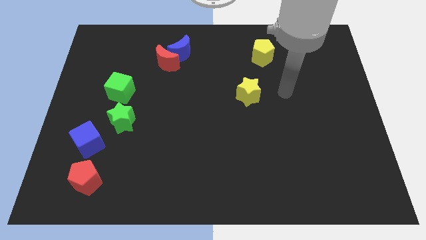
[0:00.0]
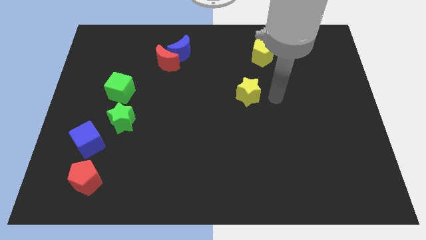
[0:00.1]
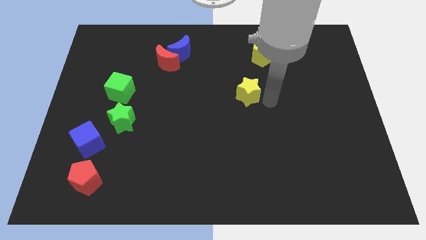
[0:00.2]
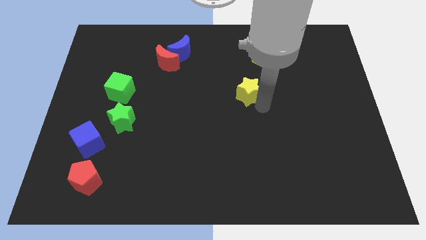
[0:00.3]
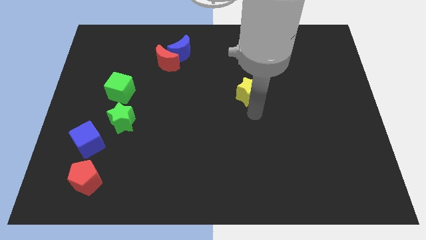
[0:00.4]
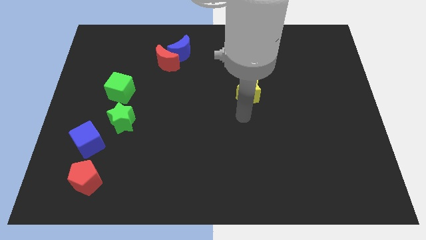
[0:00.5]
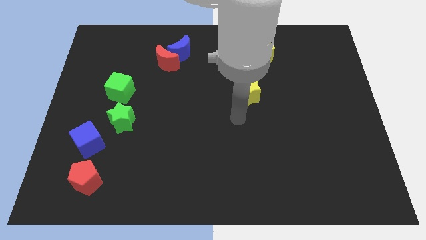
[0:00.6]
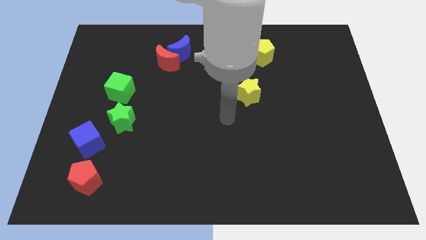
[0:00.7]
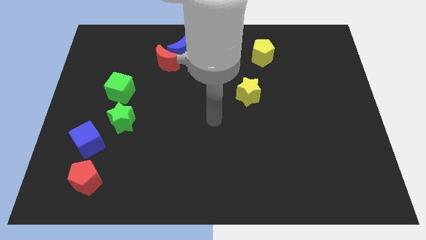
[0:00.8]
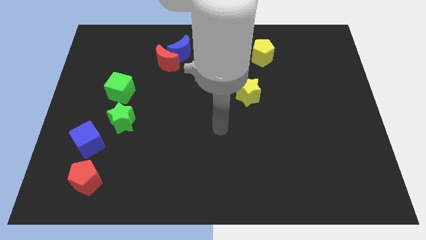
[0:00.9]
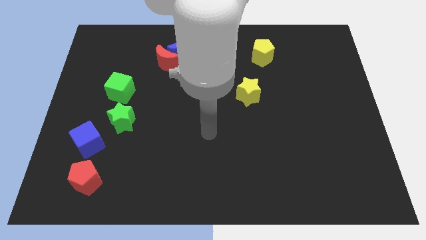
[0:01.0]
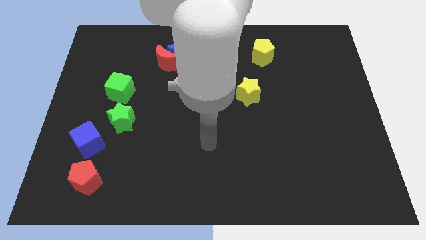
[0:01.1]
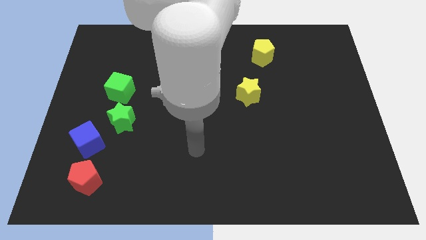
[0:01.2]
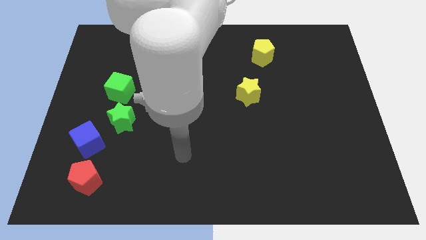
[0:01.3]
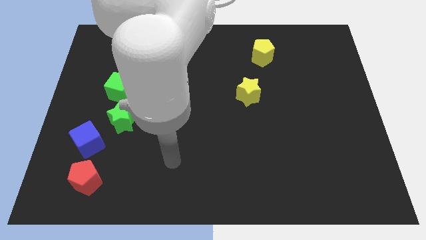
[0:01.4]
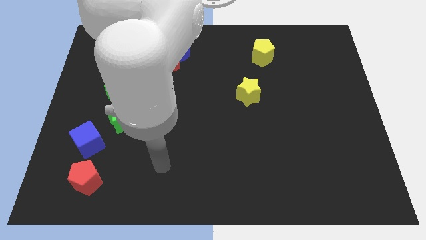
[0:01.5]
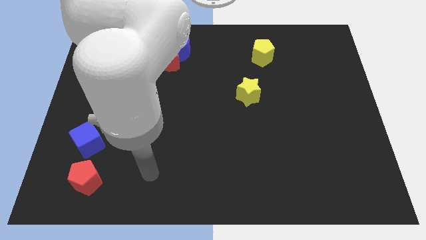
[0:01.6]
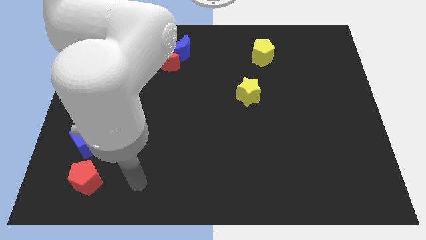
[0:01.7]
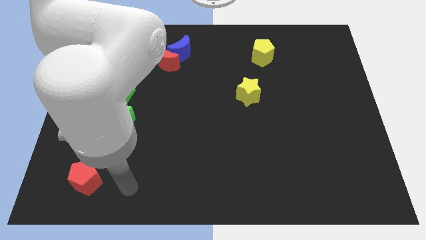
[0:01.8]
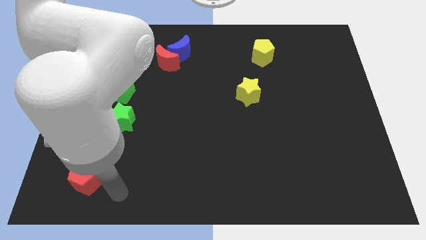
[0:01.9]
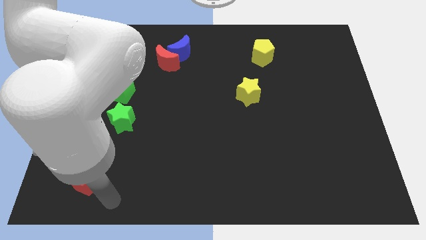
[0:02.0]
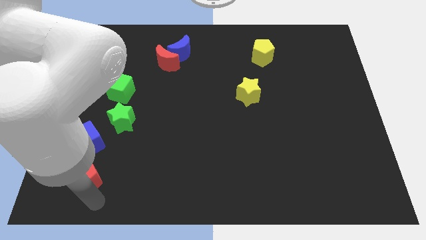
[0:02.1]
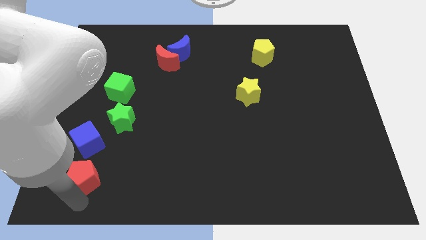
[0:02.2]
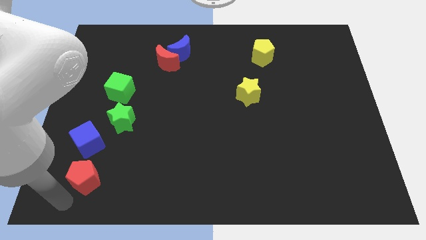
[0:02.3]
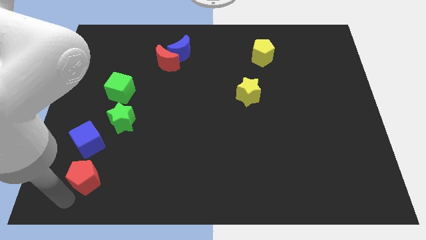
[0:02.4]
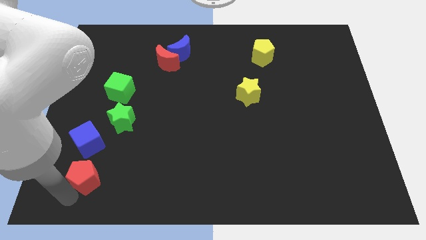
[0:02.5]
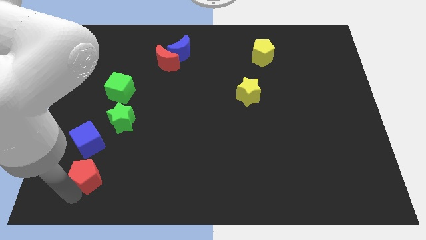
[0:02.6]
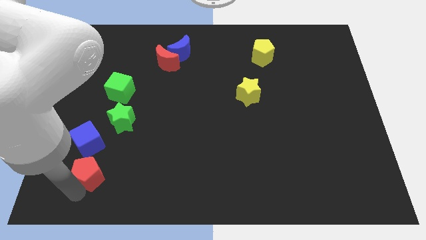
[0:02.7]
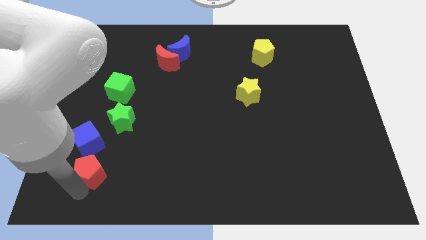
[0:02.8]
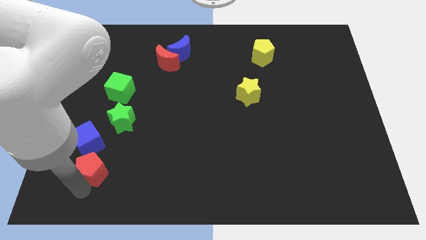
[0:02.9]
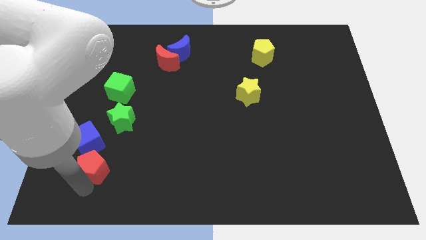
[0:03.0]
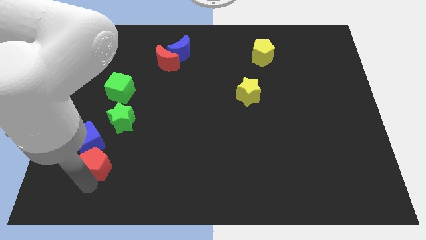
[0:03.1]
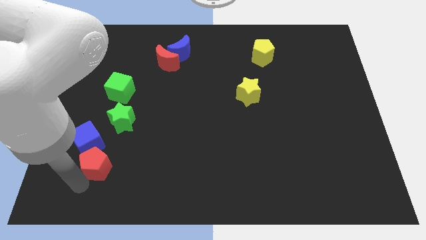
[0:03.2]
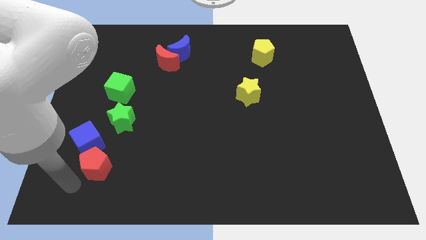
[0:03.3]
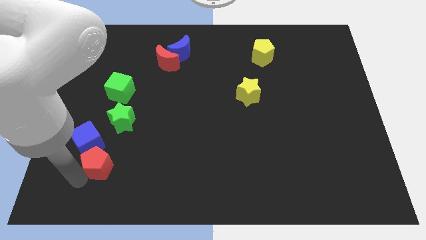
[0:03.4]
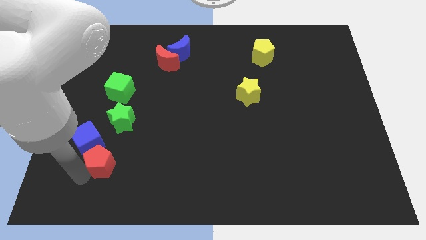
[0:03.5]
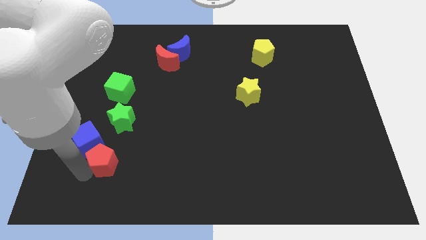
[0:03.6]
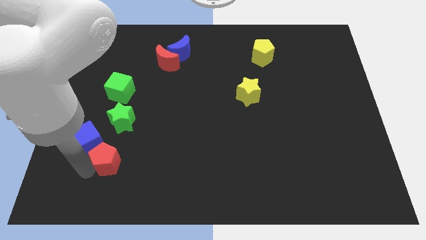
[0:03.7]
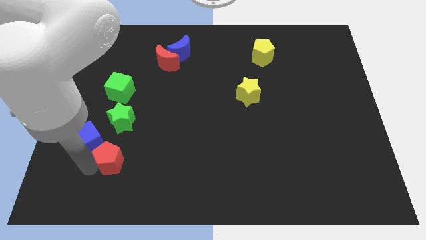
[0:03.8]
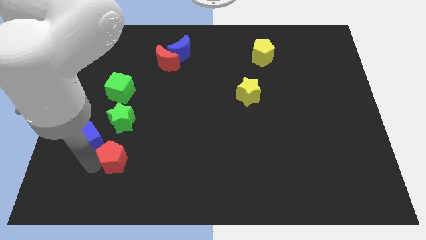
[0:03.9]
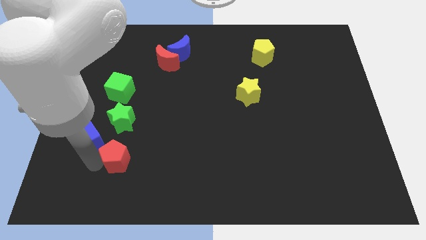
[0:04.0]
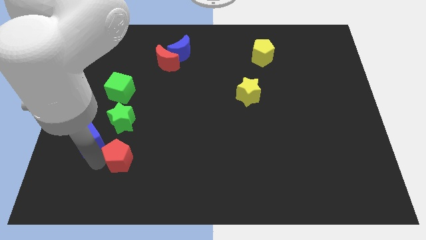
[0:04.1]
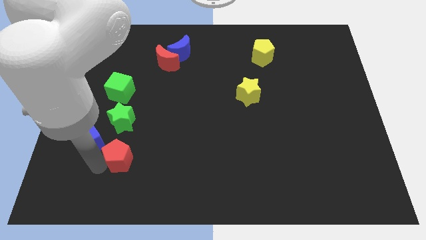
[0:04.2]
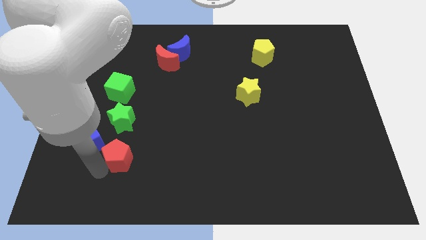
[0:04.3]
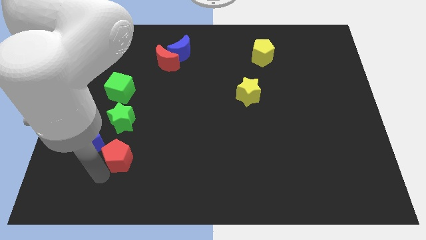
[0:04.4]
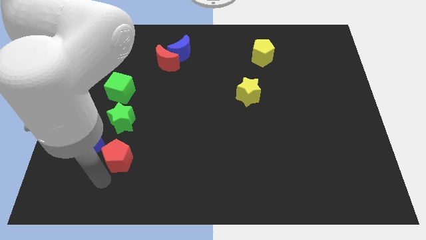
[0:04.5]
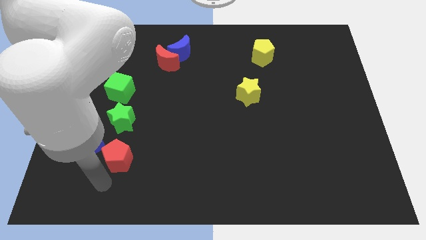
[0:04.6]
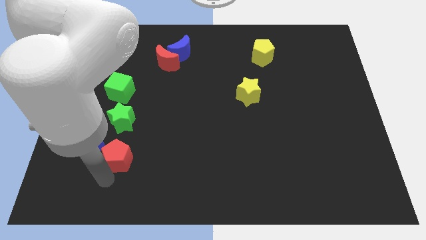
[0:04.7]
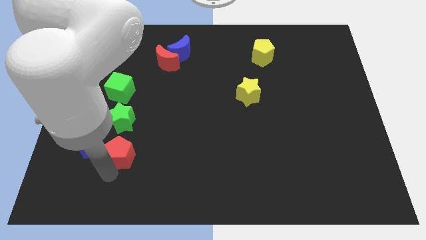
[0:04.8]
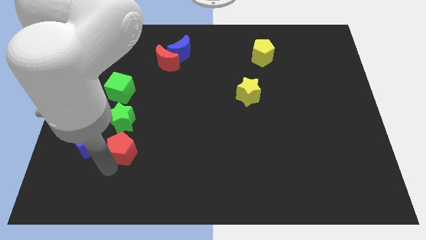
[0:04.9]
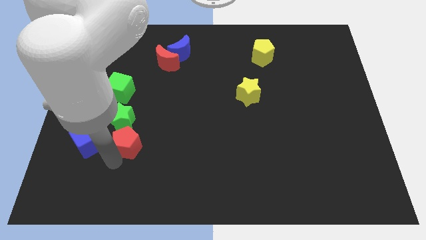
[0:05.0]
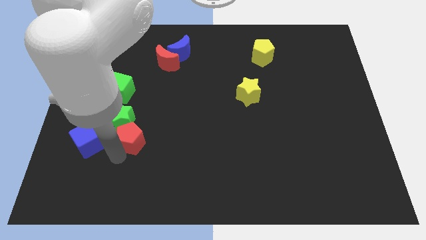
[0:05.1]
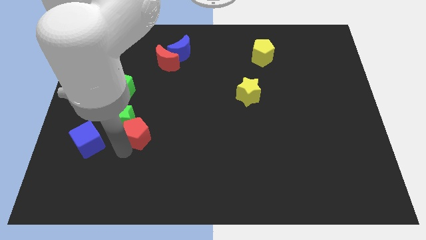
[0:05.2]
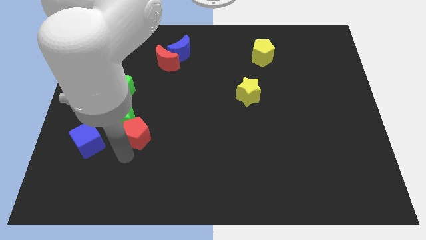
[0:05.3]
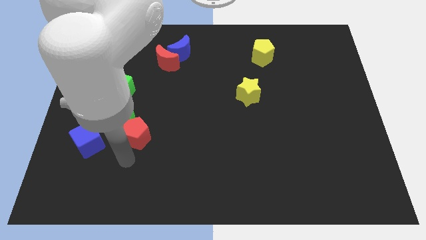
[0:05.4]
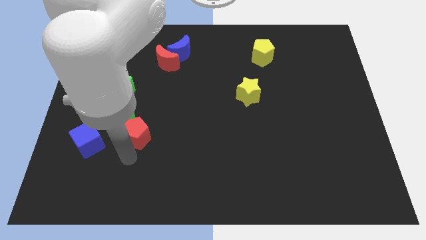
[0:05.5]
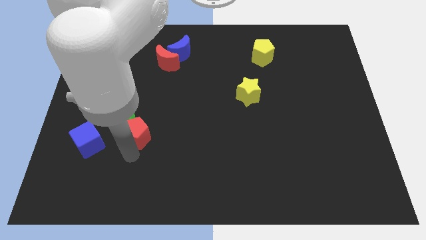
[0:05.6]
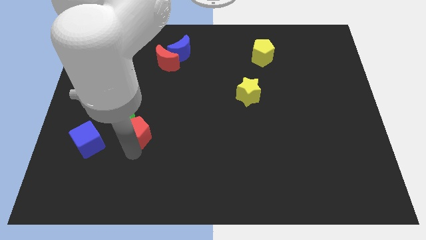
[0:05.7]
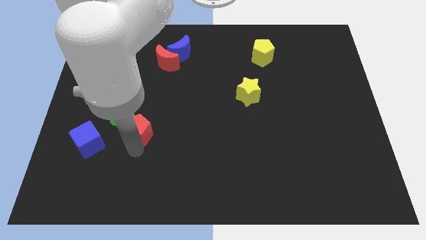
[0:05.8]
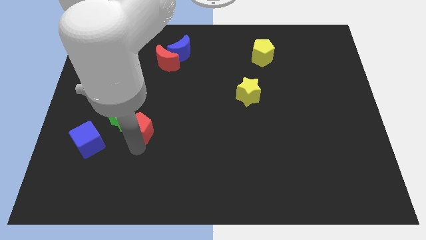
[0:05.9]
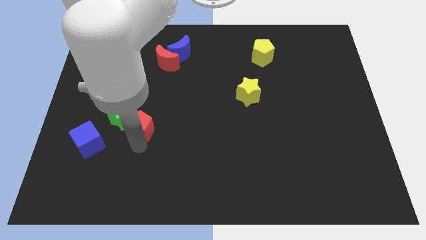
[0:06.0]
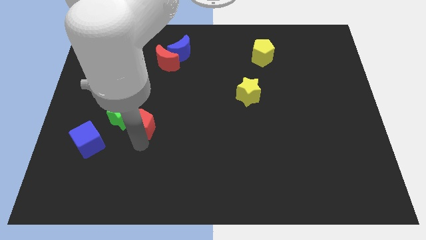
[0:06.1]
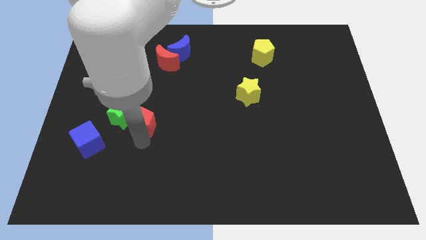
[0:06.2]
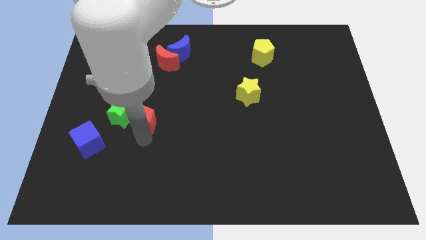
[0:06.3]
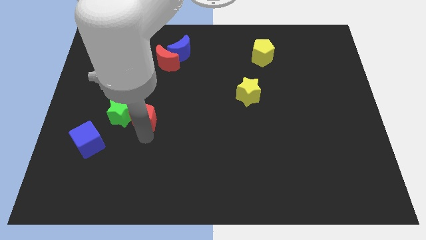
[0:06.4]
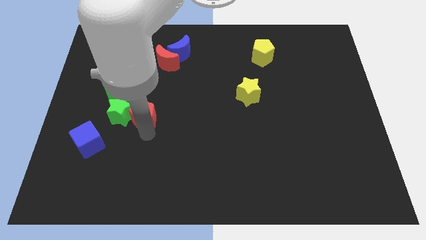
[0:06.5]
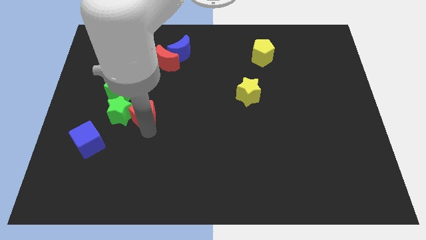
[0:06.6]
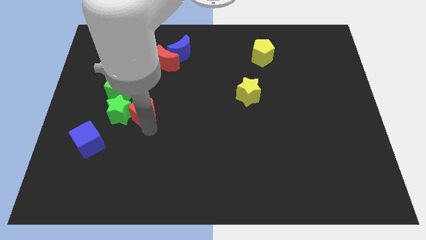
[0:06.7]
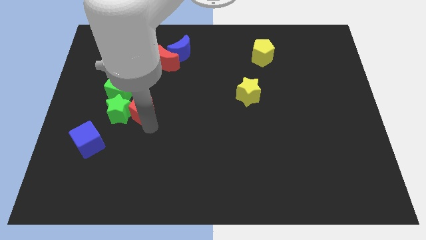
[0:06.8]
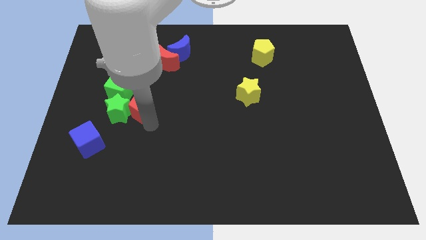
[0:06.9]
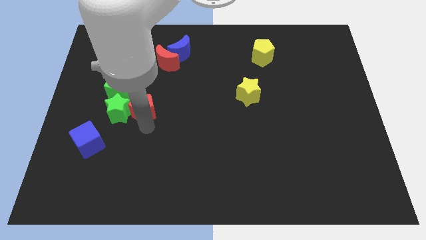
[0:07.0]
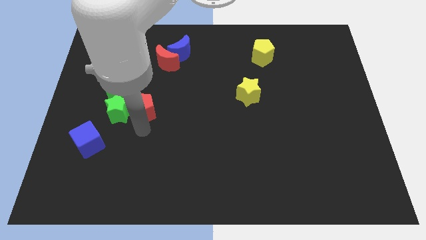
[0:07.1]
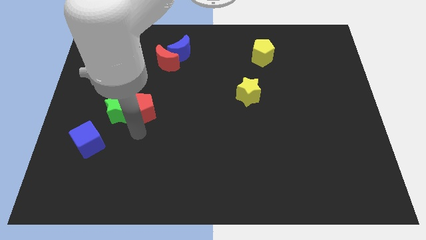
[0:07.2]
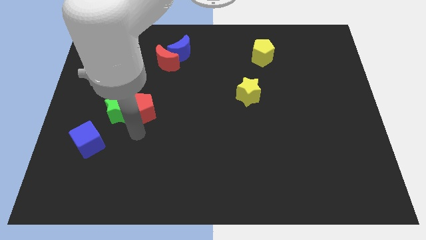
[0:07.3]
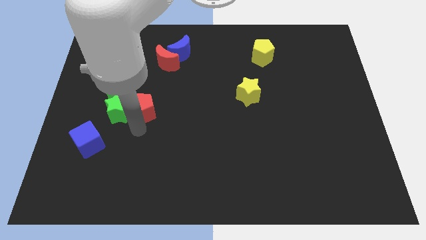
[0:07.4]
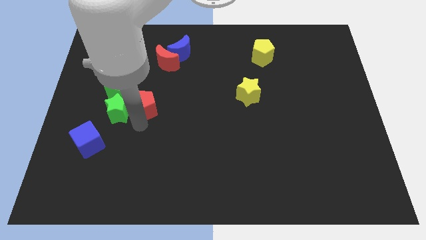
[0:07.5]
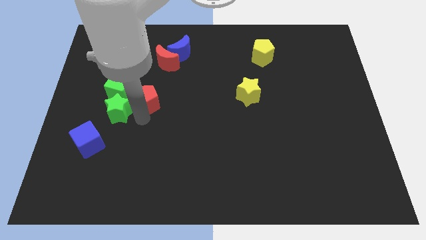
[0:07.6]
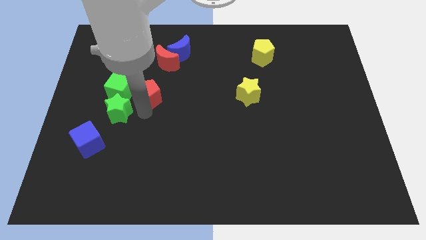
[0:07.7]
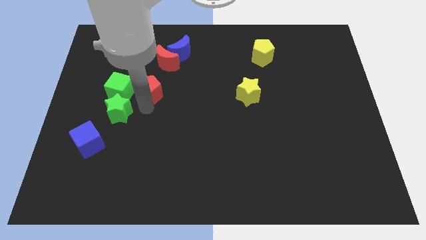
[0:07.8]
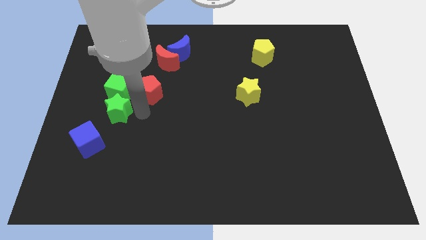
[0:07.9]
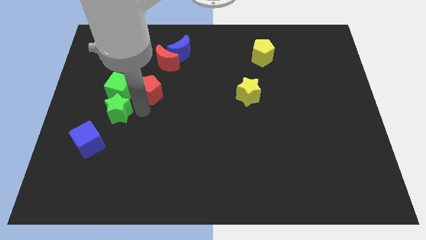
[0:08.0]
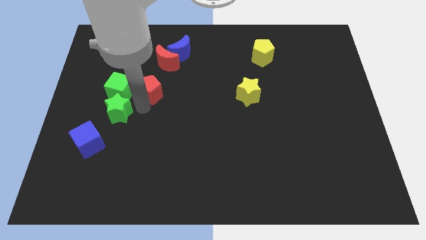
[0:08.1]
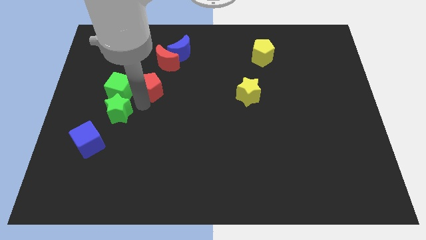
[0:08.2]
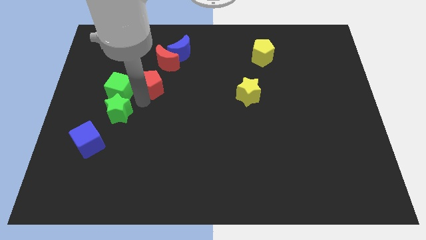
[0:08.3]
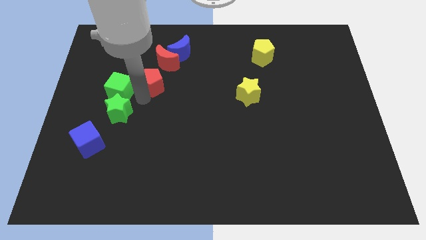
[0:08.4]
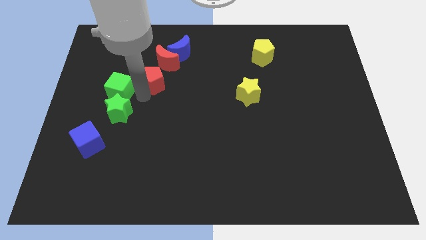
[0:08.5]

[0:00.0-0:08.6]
put the red pentagon to the bottom left of the blue moon
